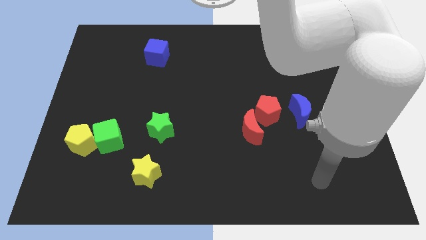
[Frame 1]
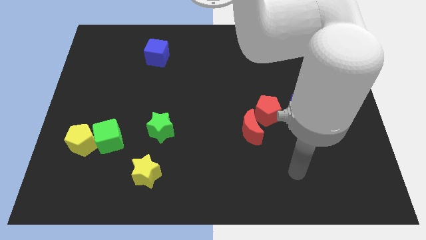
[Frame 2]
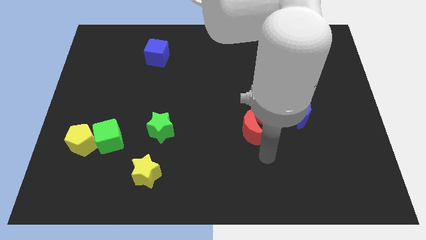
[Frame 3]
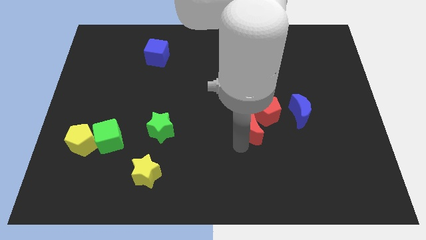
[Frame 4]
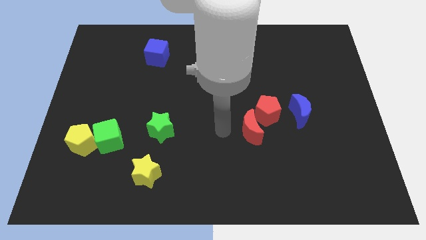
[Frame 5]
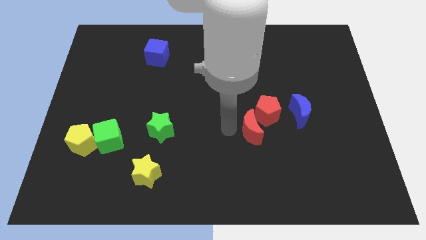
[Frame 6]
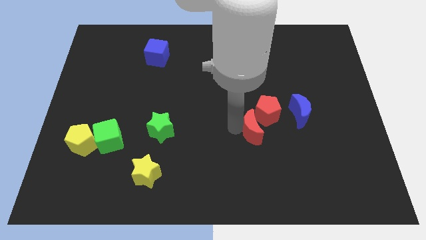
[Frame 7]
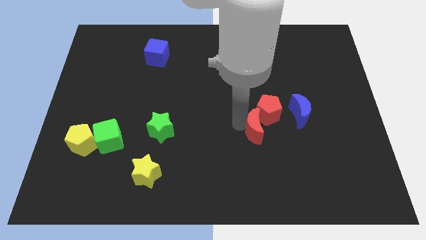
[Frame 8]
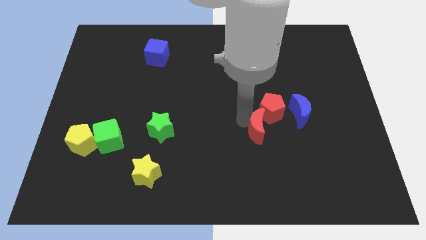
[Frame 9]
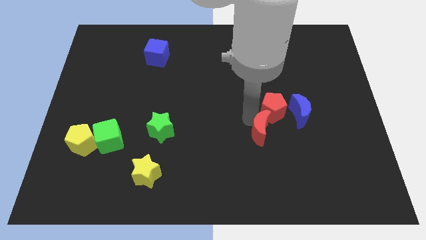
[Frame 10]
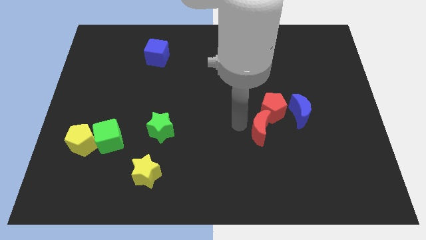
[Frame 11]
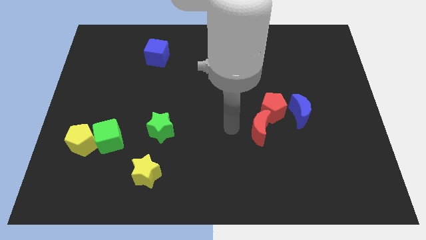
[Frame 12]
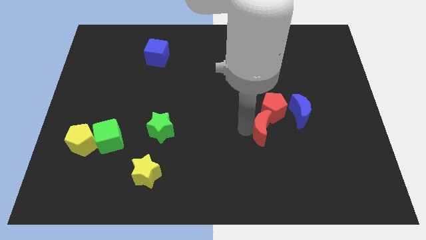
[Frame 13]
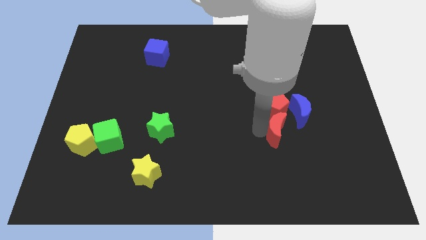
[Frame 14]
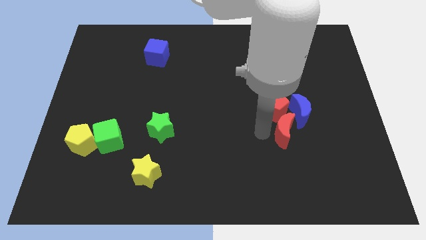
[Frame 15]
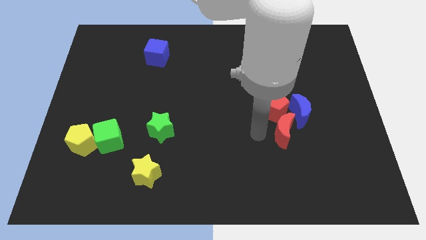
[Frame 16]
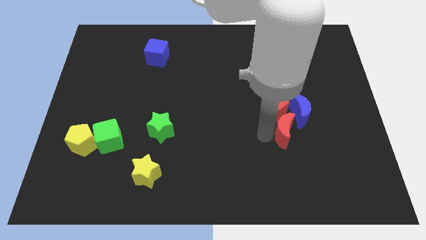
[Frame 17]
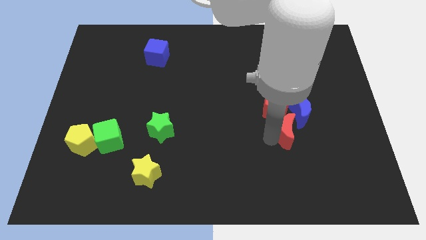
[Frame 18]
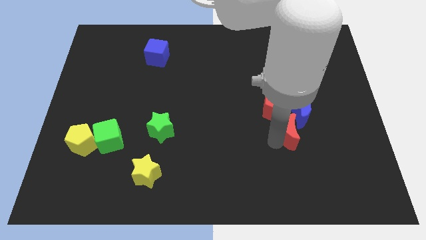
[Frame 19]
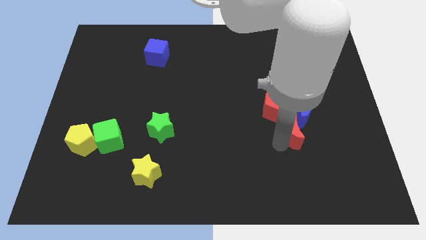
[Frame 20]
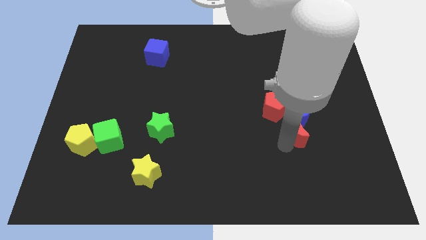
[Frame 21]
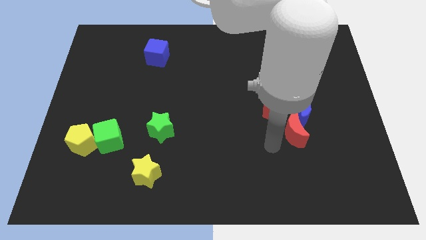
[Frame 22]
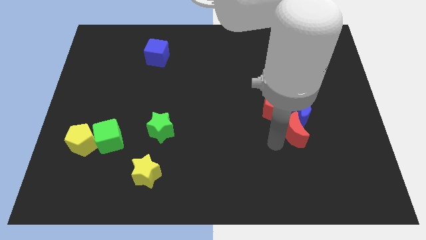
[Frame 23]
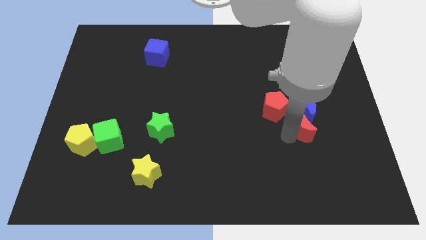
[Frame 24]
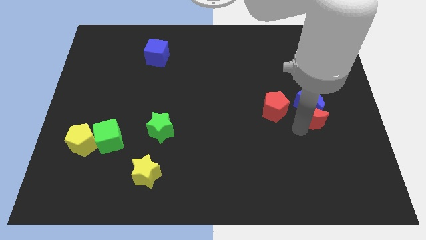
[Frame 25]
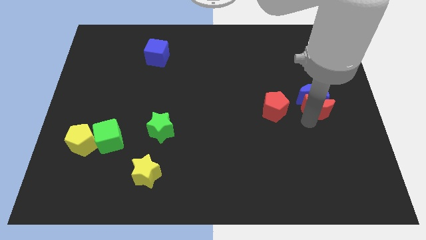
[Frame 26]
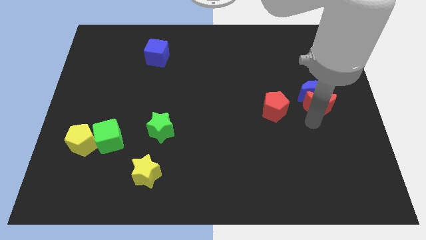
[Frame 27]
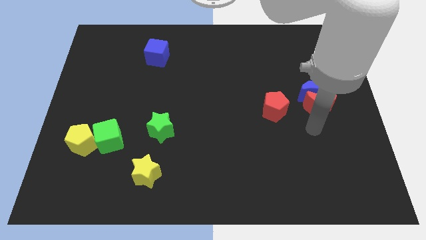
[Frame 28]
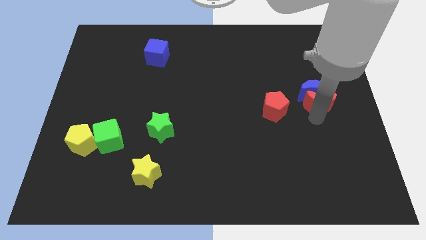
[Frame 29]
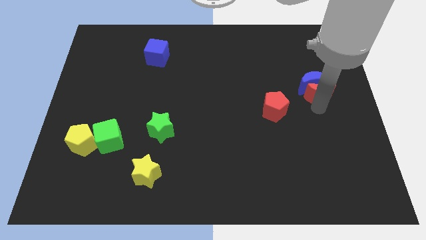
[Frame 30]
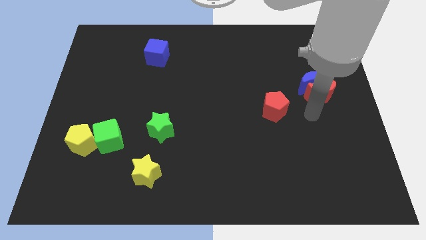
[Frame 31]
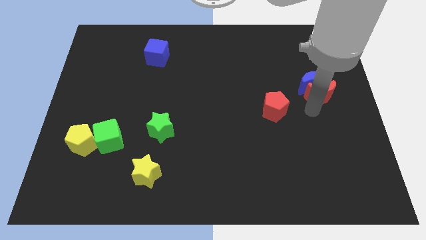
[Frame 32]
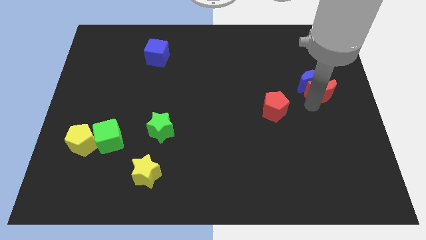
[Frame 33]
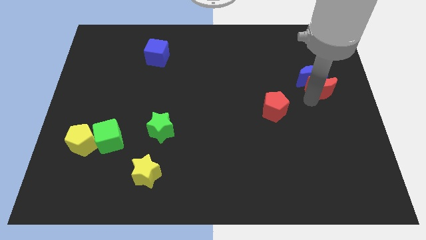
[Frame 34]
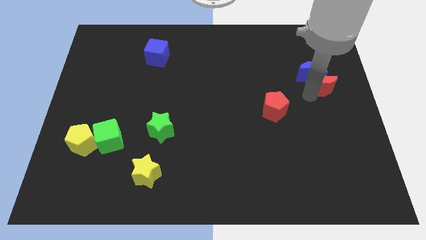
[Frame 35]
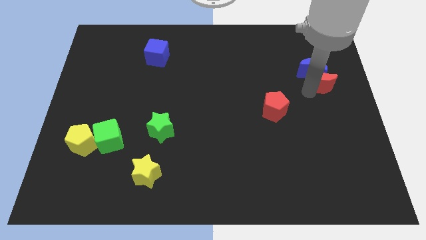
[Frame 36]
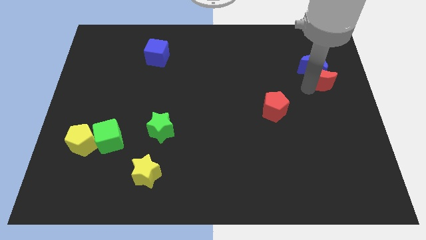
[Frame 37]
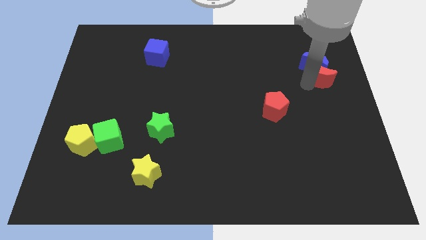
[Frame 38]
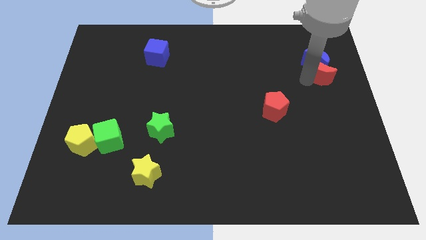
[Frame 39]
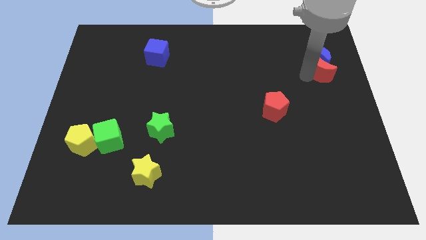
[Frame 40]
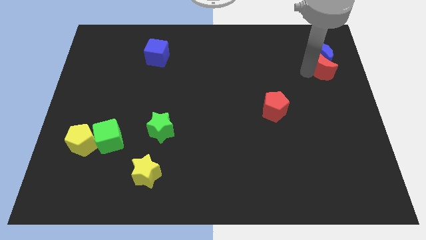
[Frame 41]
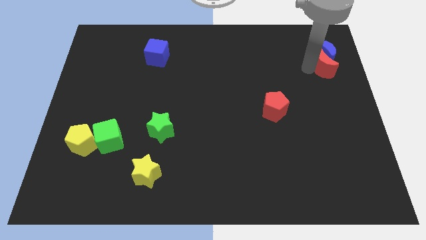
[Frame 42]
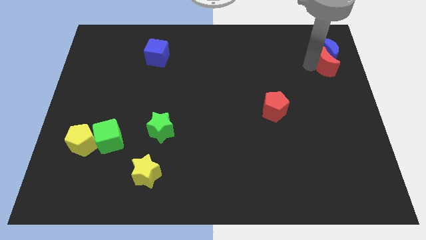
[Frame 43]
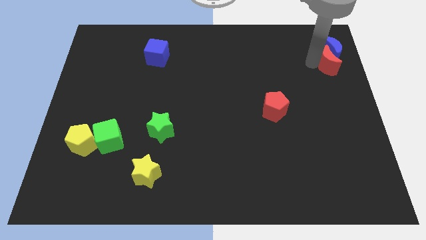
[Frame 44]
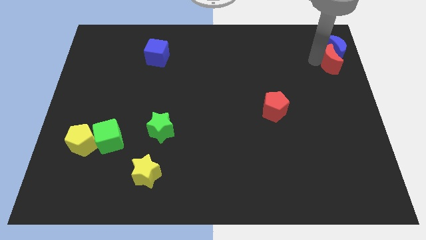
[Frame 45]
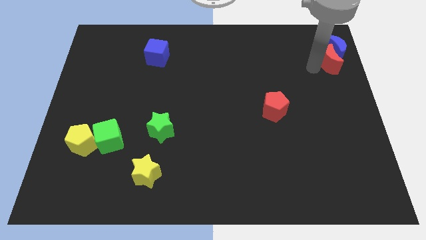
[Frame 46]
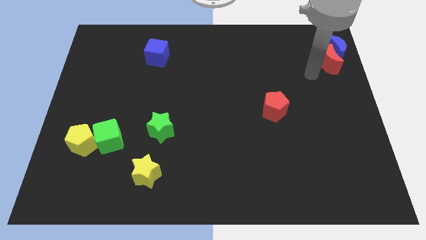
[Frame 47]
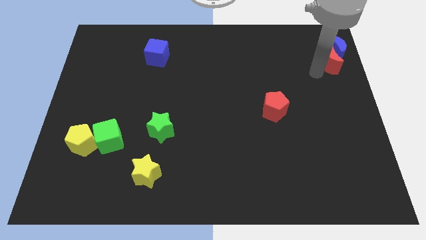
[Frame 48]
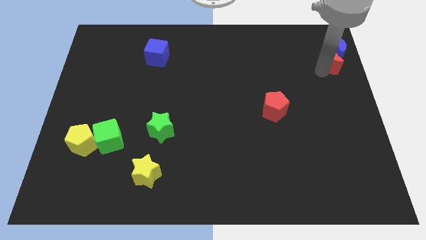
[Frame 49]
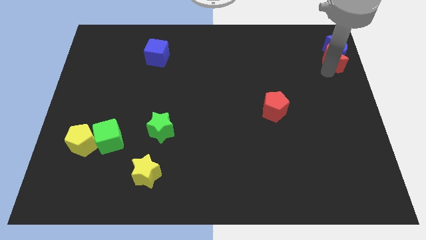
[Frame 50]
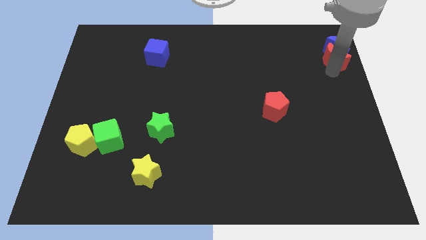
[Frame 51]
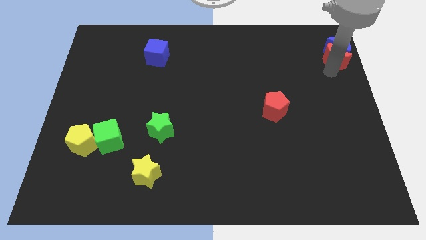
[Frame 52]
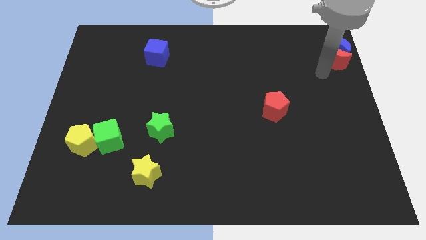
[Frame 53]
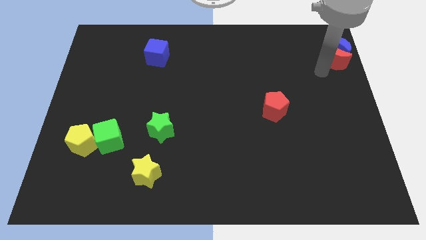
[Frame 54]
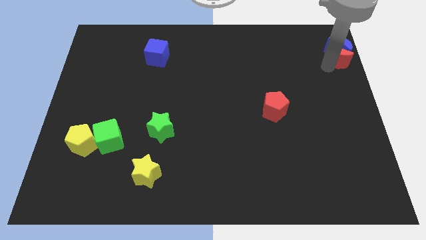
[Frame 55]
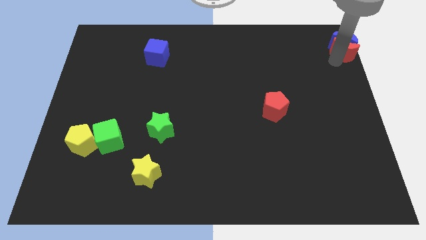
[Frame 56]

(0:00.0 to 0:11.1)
put the red moon to the top right

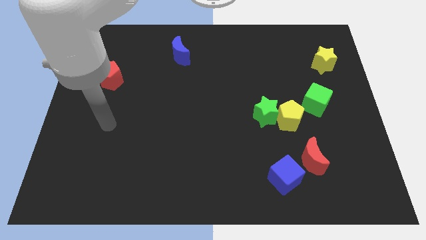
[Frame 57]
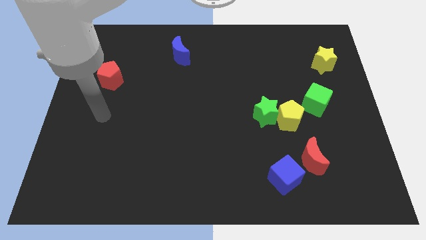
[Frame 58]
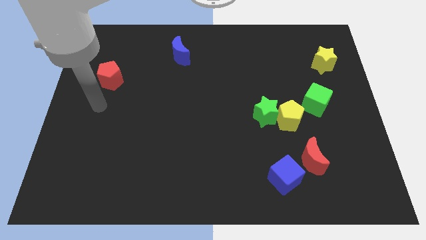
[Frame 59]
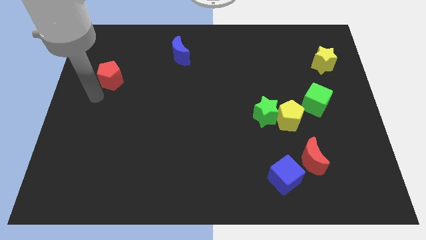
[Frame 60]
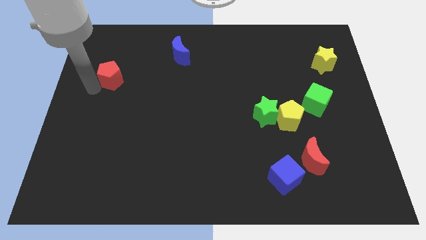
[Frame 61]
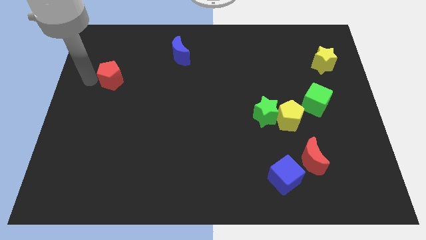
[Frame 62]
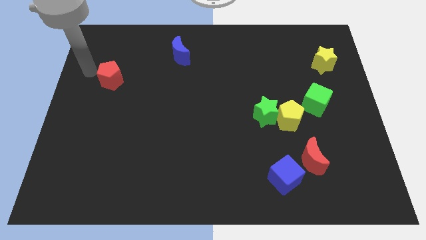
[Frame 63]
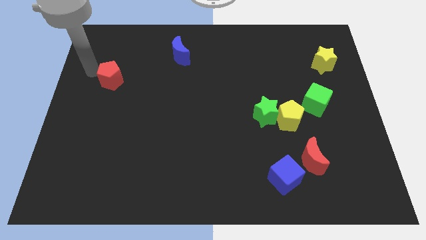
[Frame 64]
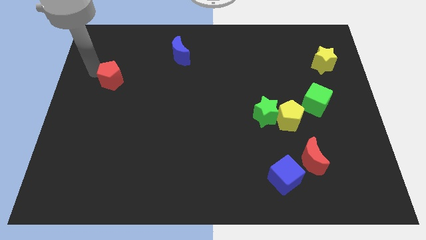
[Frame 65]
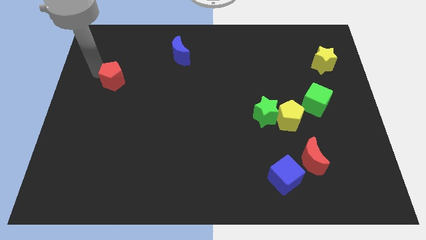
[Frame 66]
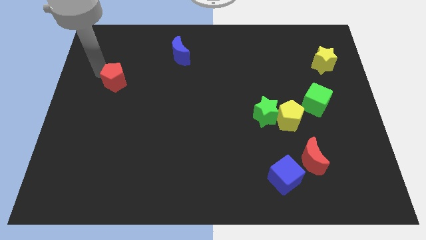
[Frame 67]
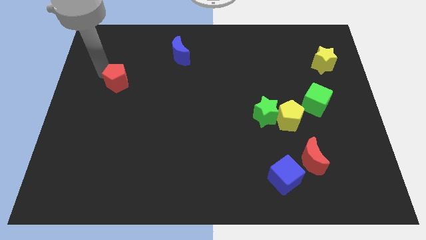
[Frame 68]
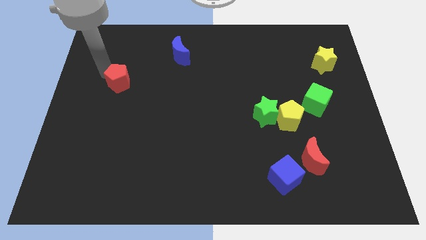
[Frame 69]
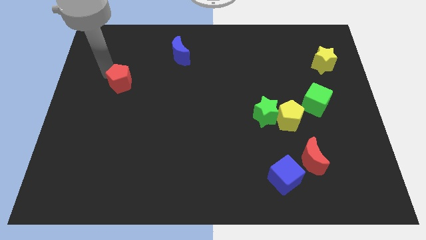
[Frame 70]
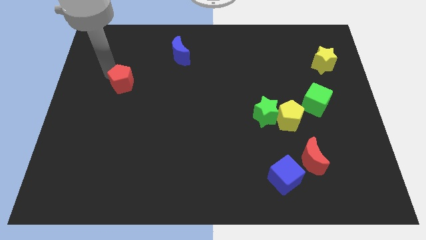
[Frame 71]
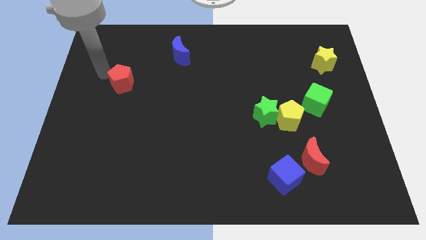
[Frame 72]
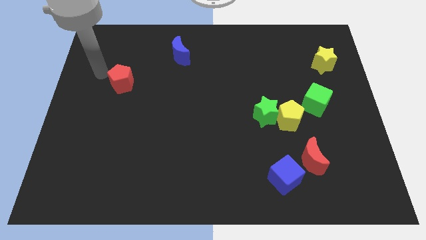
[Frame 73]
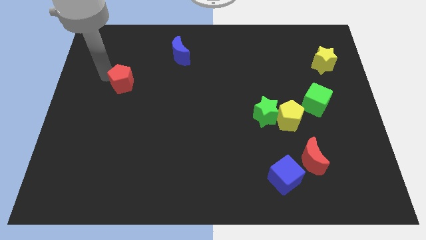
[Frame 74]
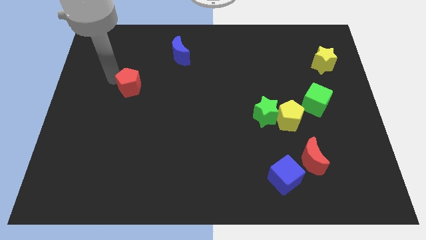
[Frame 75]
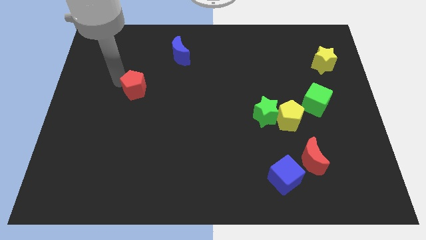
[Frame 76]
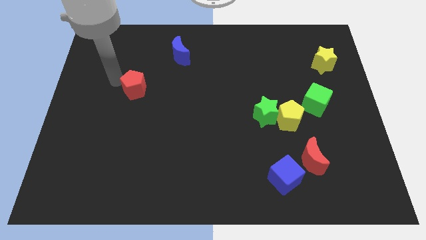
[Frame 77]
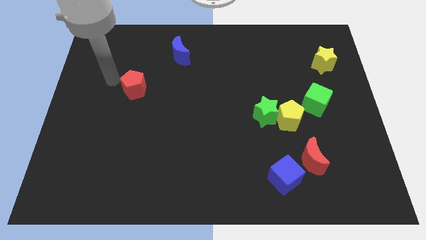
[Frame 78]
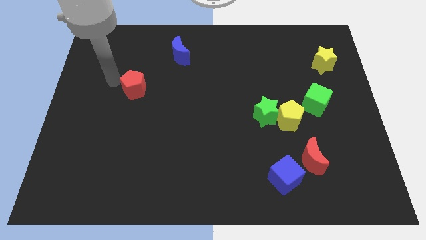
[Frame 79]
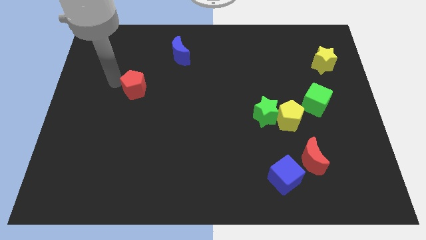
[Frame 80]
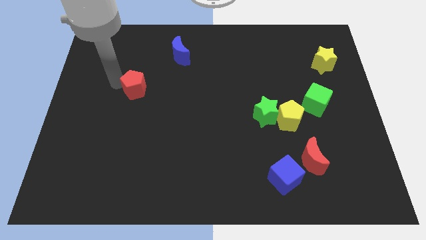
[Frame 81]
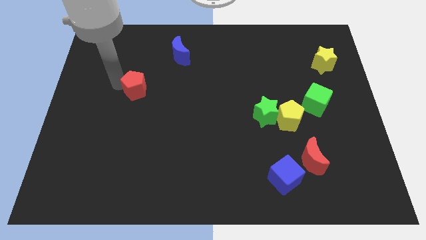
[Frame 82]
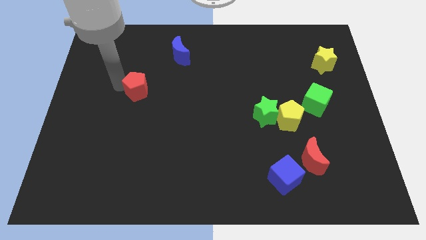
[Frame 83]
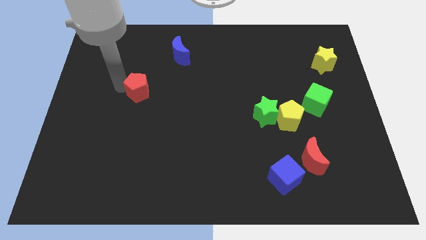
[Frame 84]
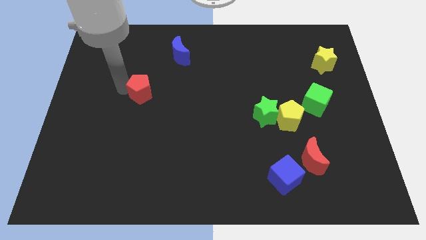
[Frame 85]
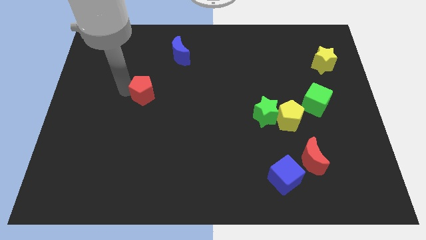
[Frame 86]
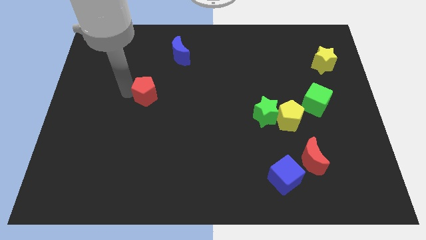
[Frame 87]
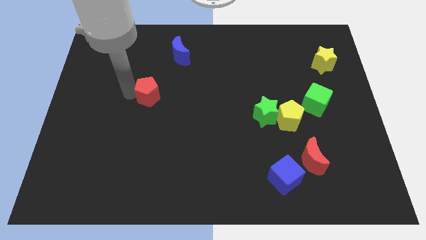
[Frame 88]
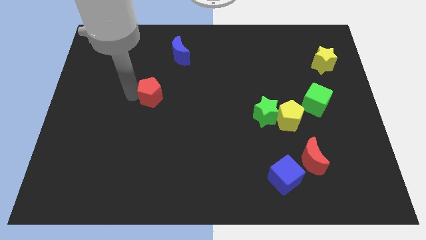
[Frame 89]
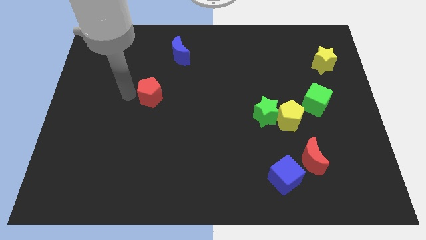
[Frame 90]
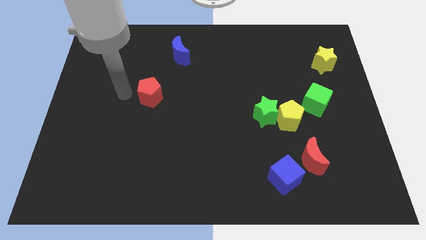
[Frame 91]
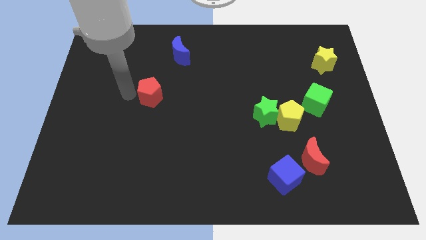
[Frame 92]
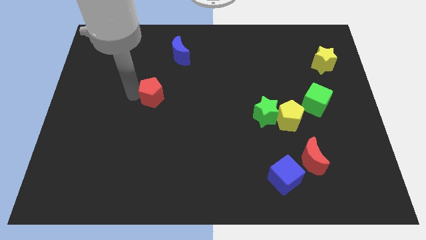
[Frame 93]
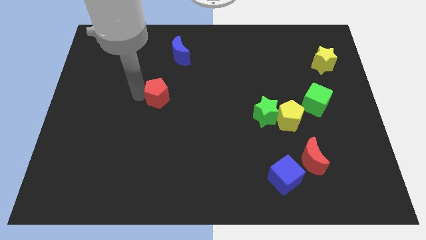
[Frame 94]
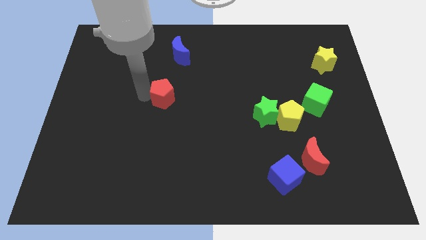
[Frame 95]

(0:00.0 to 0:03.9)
move the red pentagon to the middle
